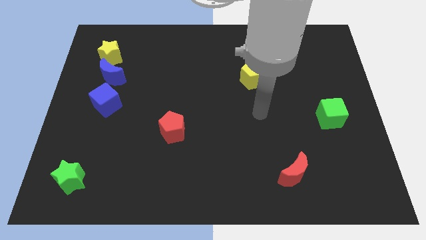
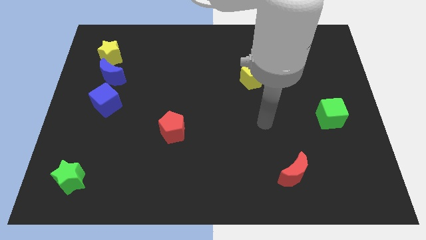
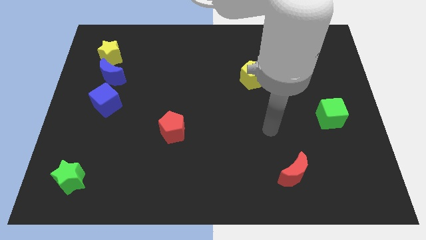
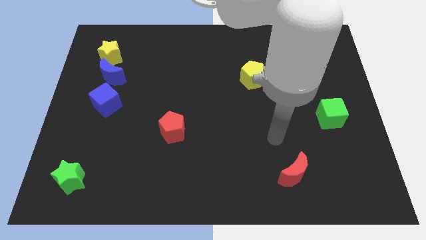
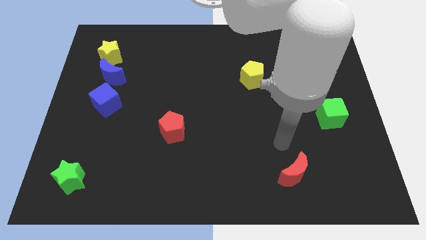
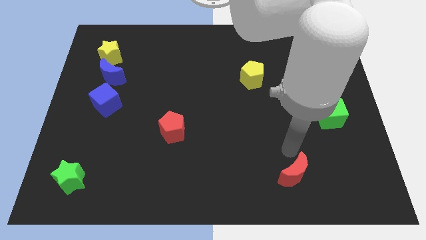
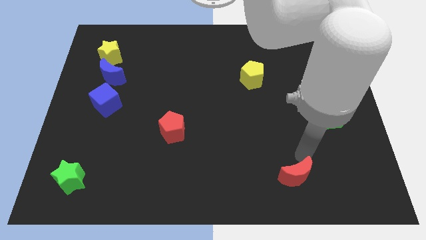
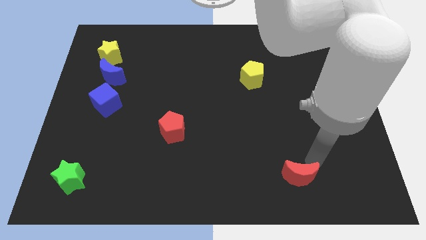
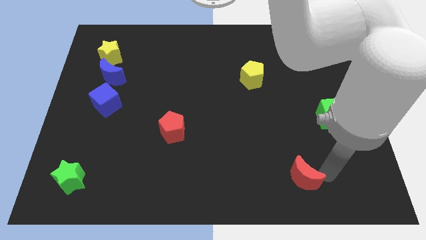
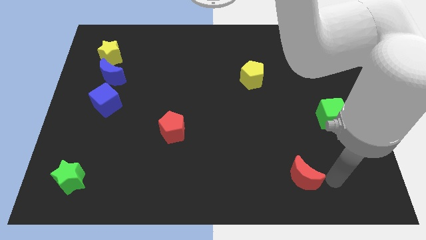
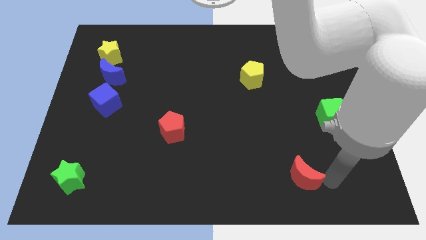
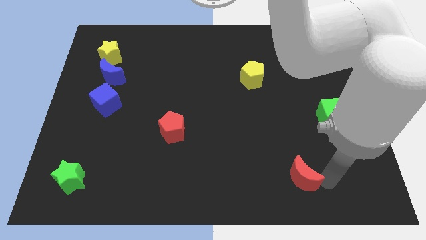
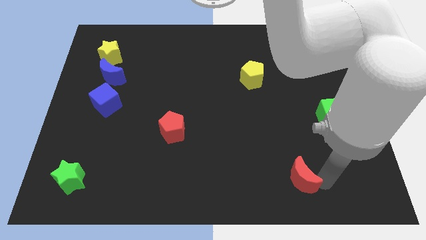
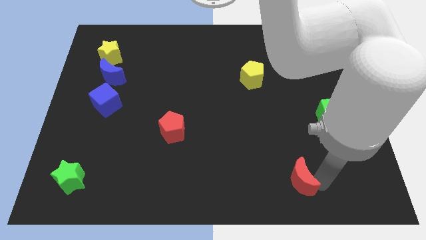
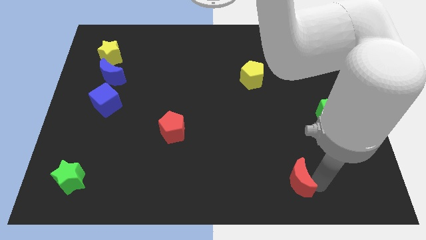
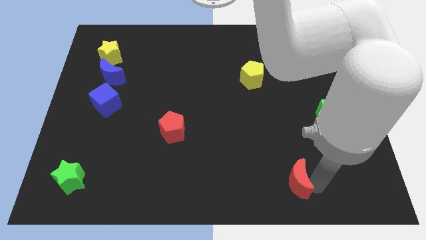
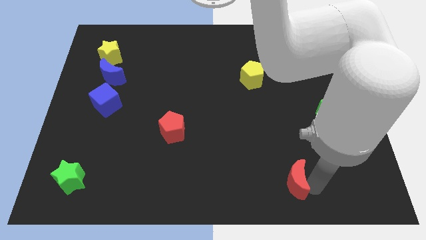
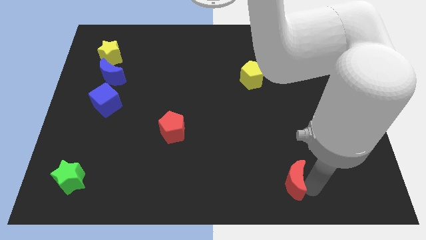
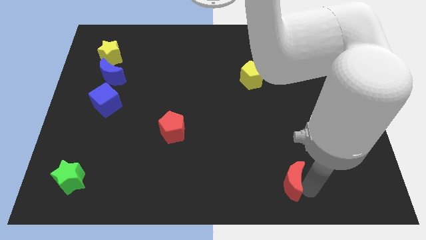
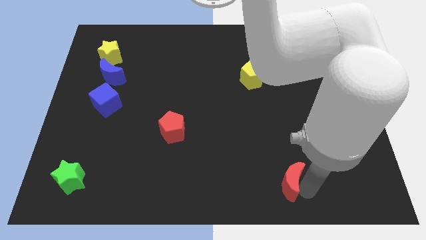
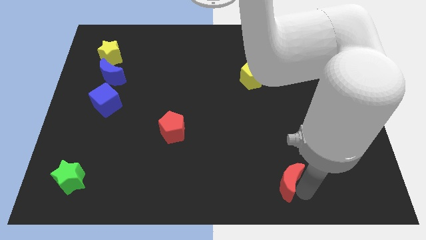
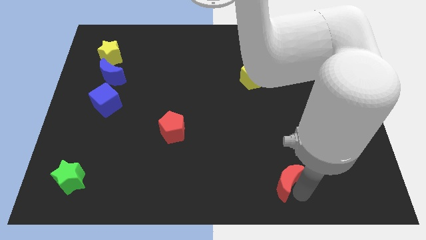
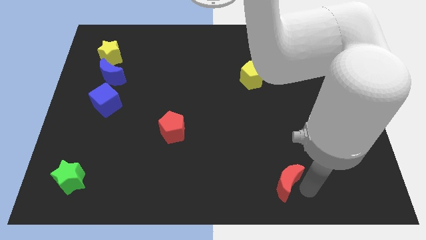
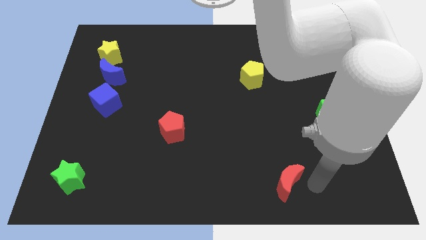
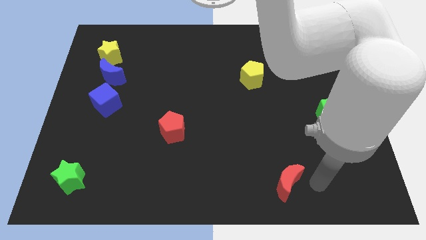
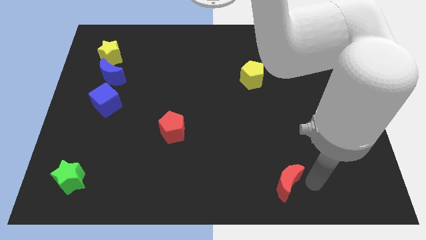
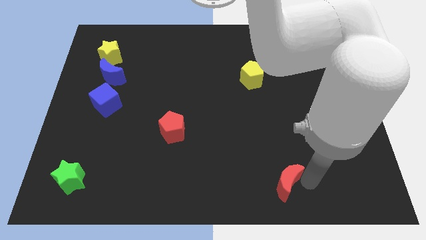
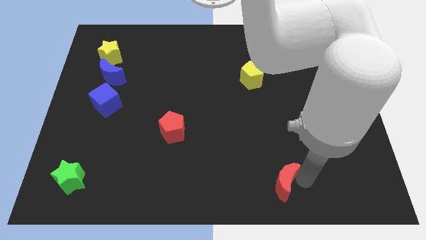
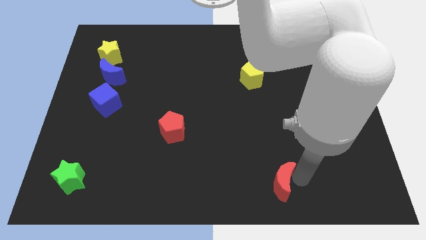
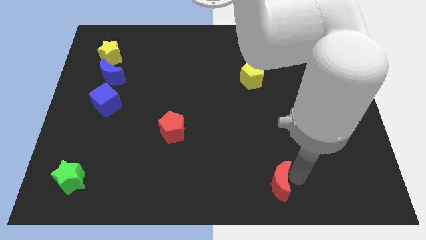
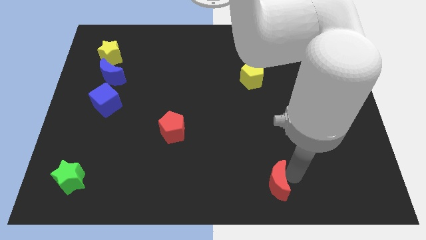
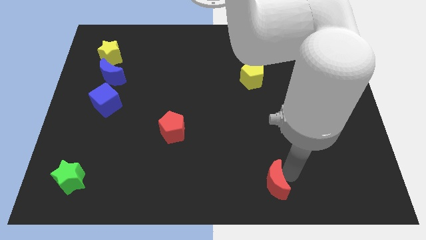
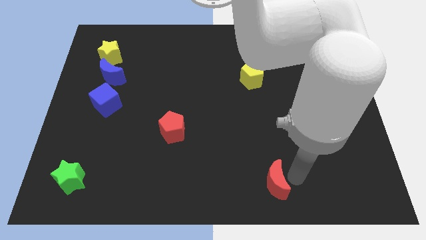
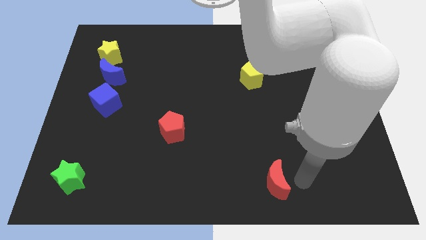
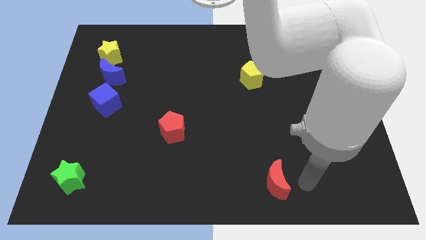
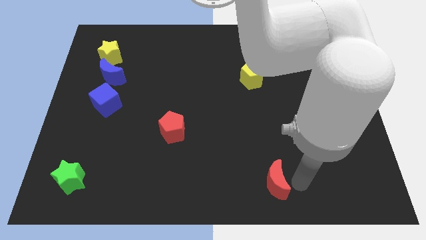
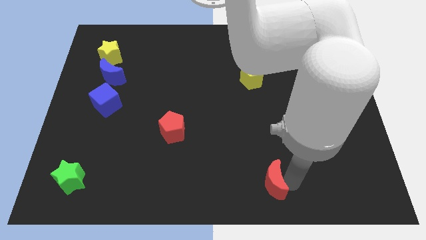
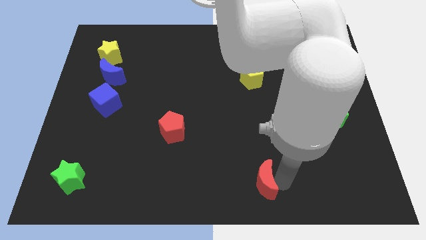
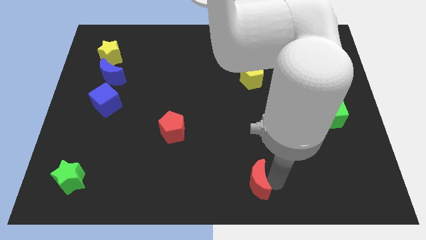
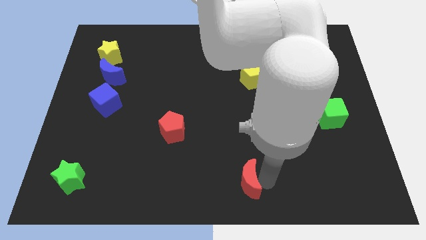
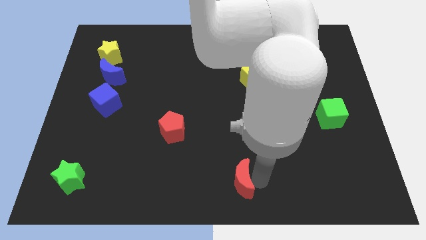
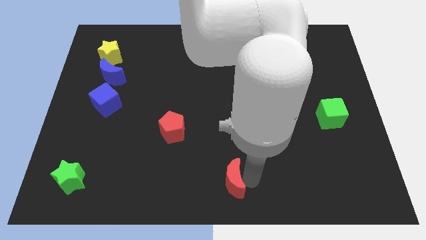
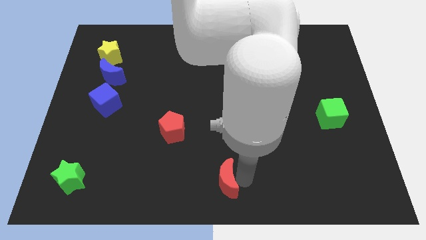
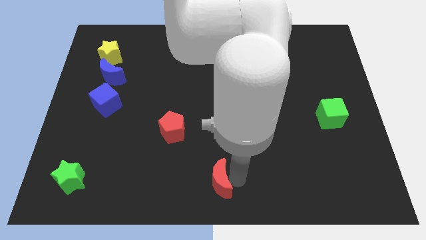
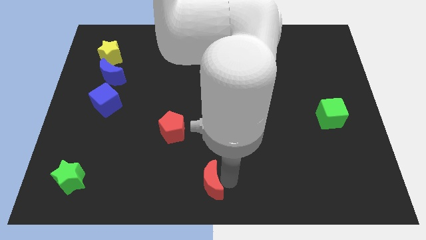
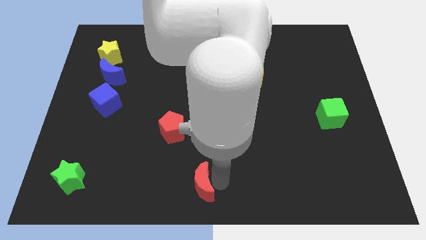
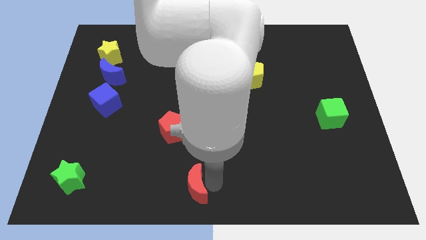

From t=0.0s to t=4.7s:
slide the red moon left

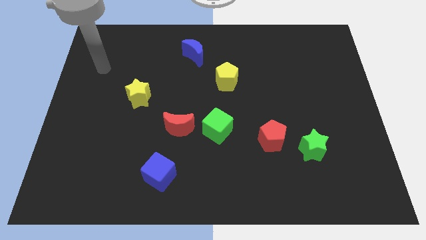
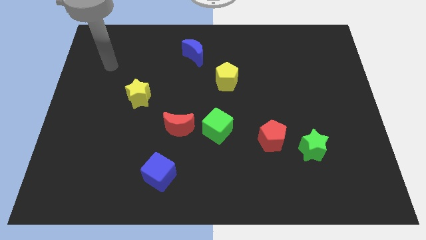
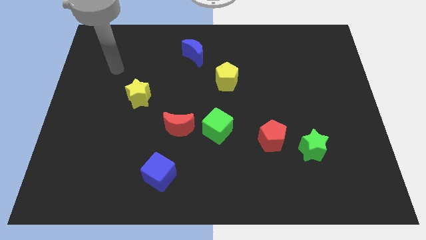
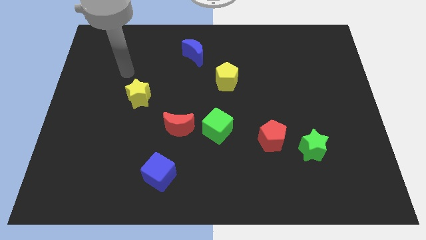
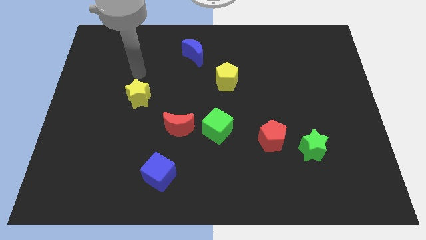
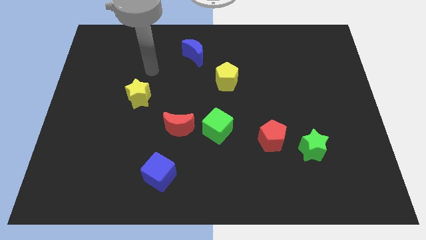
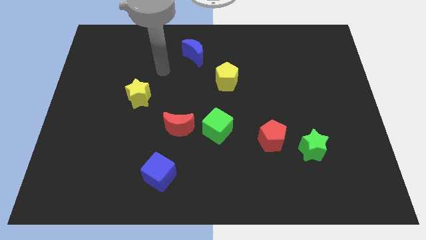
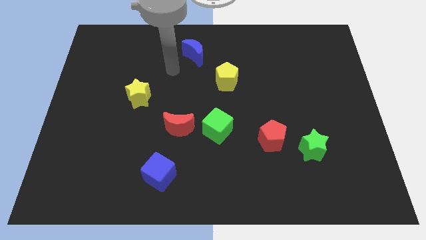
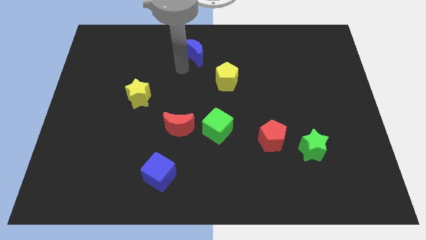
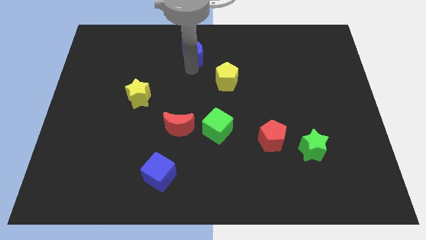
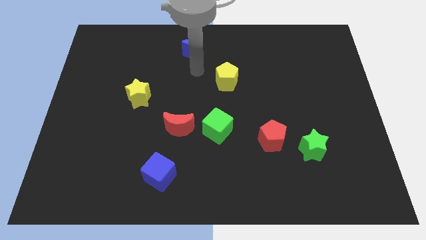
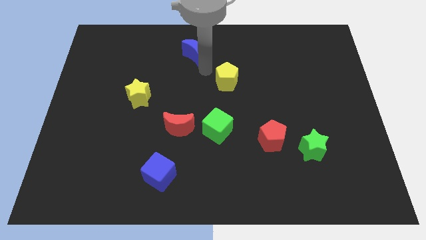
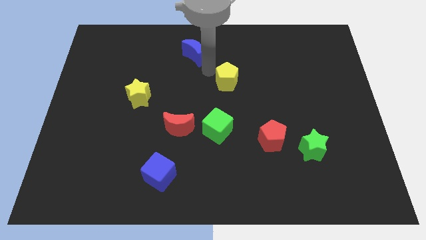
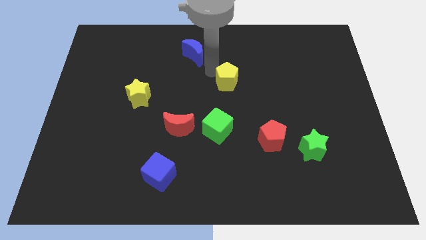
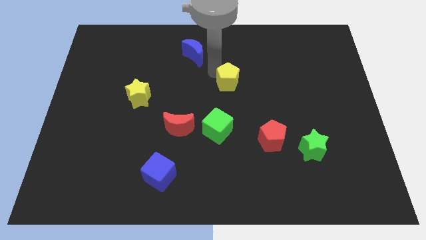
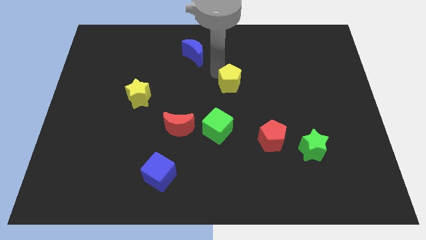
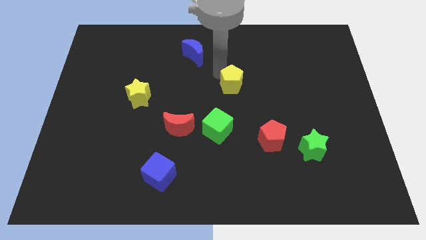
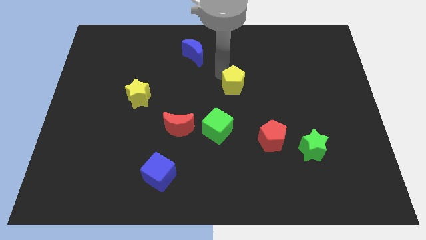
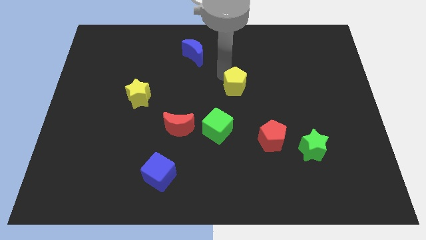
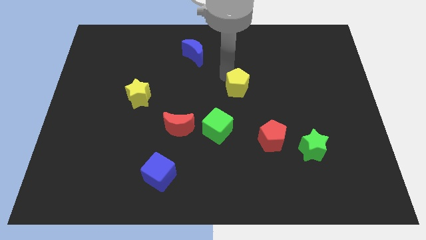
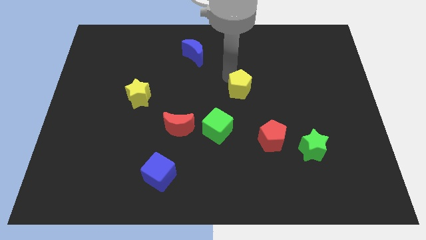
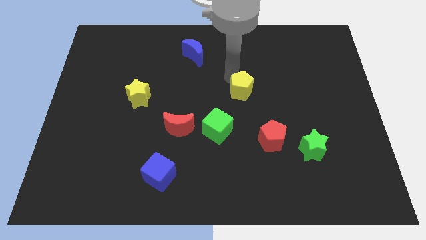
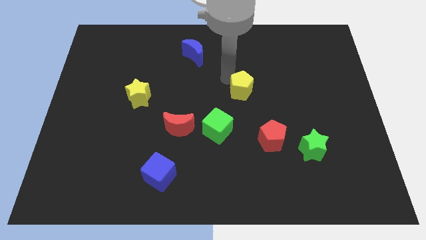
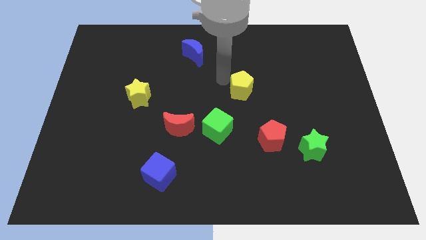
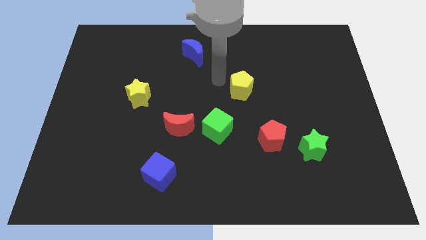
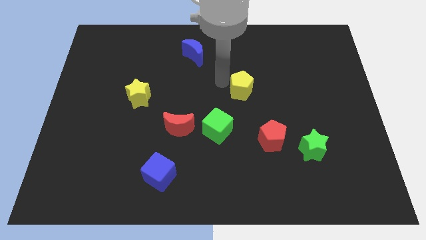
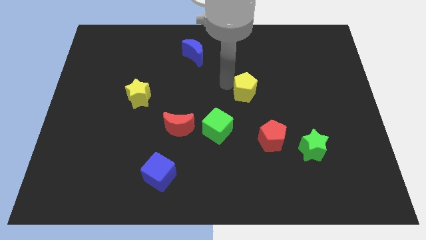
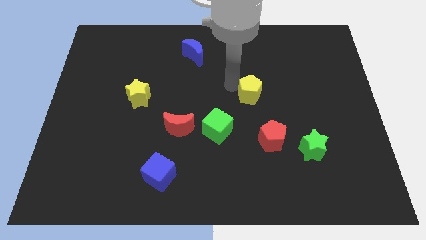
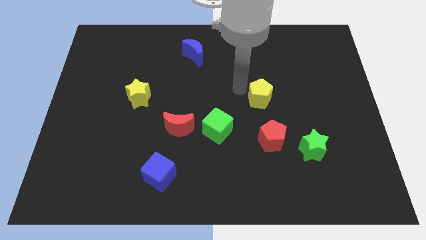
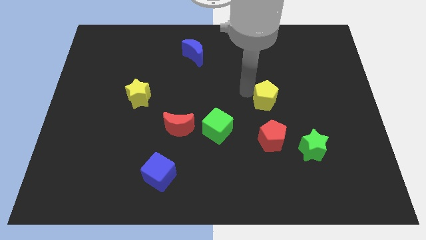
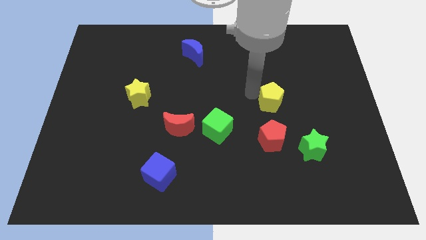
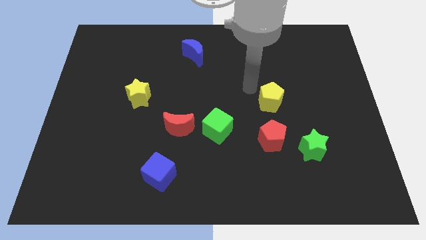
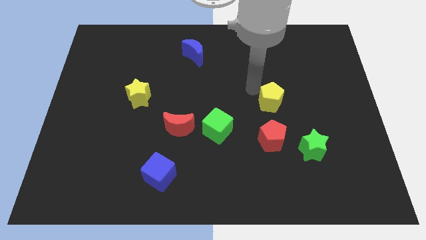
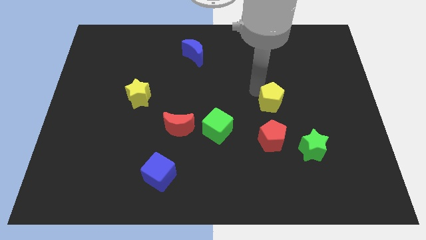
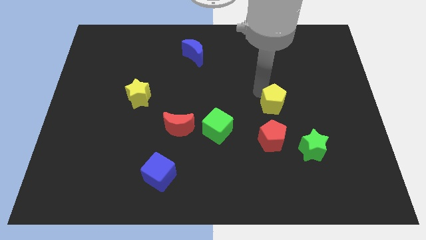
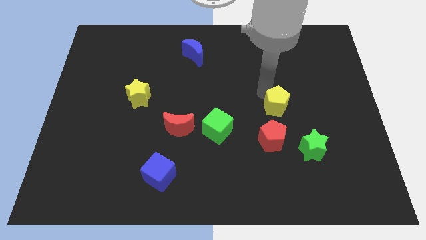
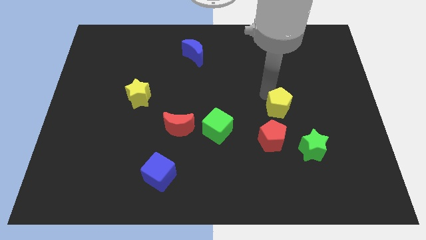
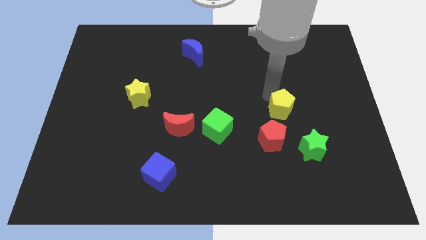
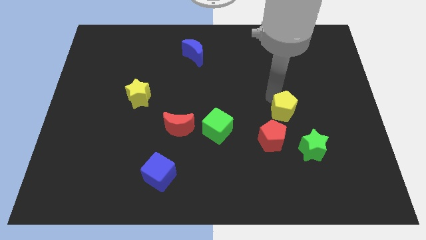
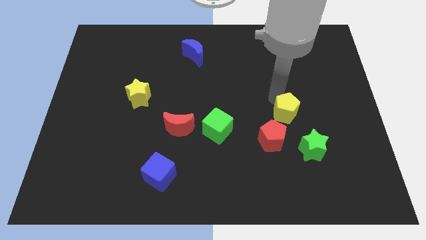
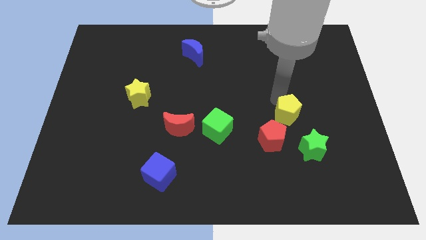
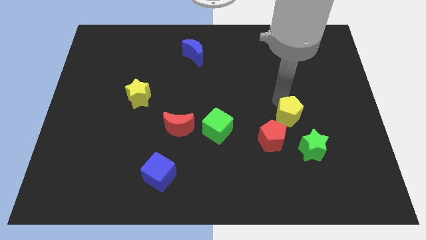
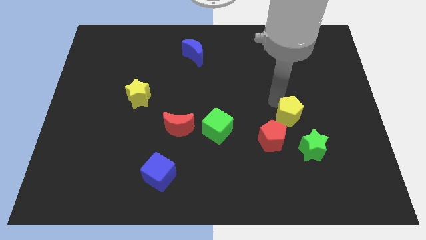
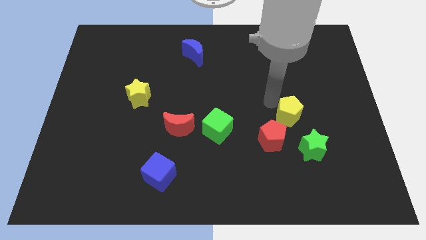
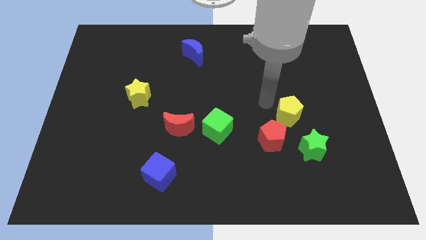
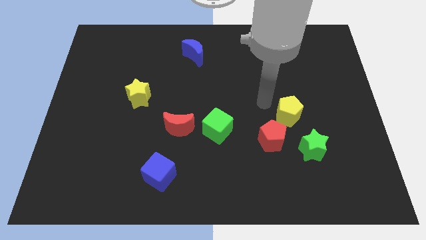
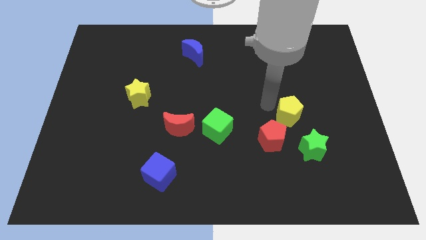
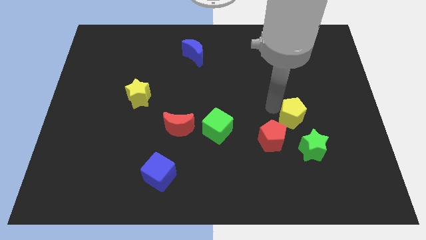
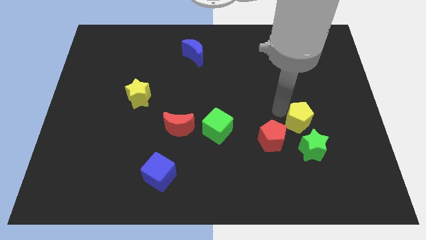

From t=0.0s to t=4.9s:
push the yellow pentagon downwards and then right
